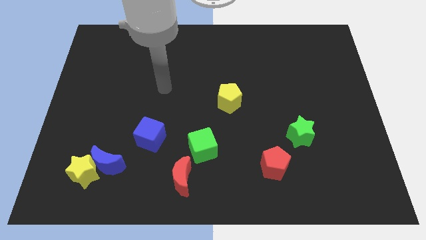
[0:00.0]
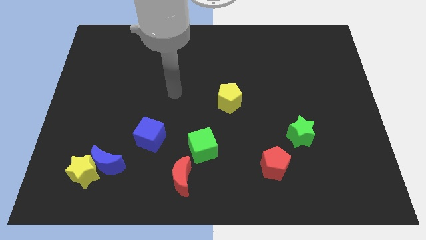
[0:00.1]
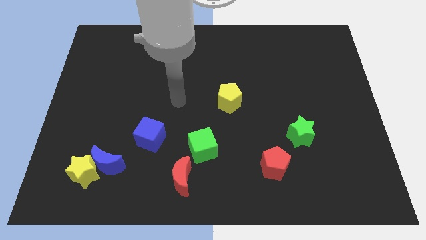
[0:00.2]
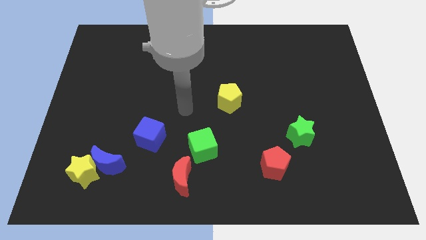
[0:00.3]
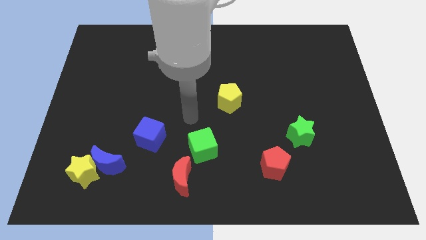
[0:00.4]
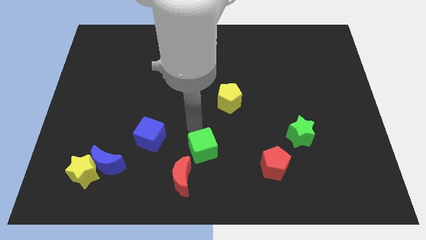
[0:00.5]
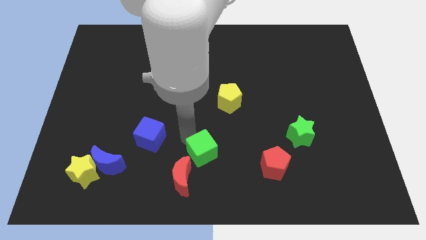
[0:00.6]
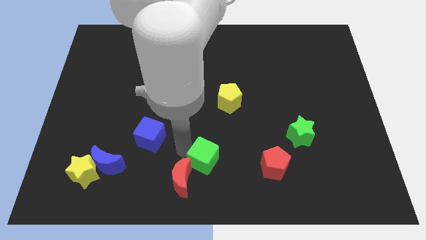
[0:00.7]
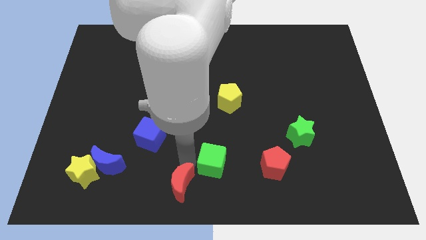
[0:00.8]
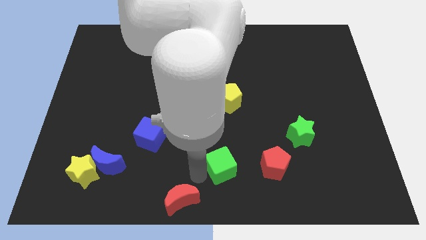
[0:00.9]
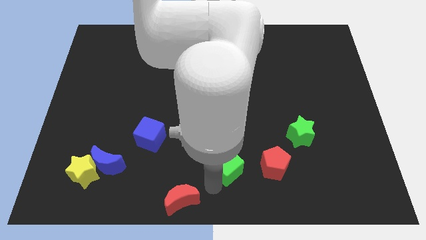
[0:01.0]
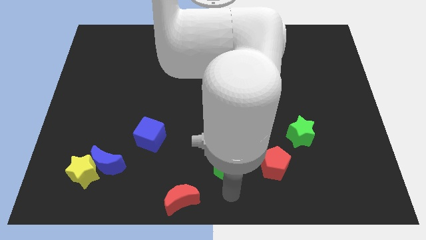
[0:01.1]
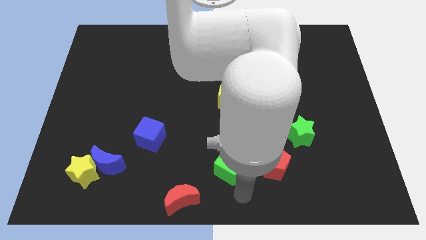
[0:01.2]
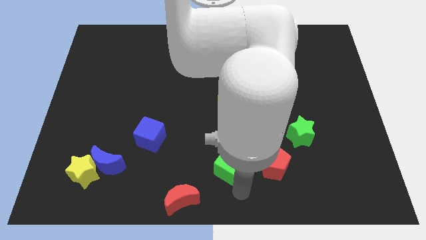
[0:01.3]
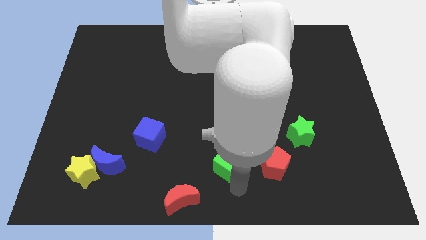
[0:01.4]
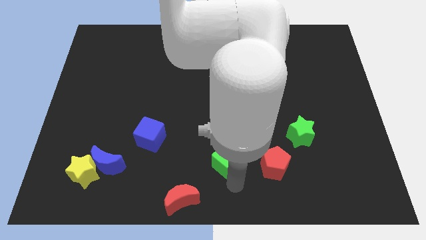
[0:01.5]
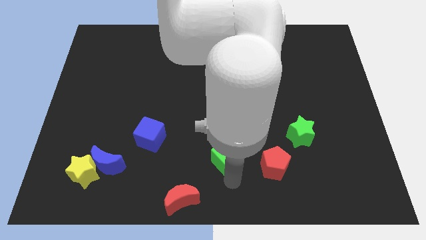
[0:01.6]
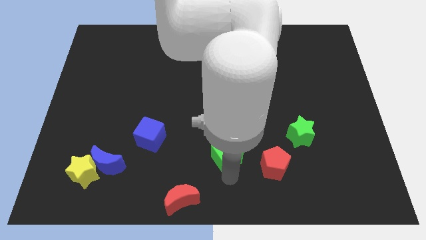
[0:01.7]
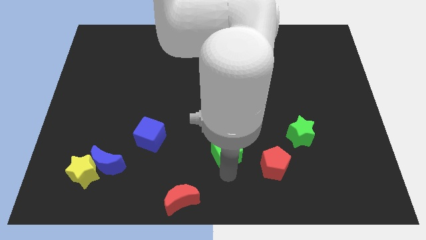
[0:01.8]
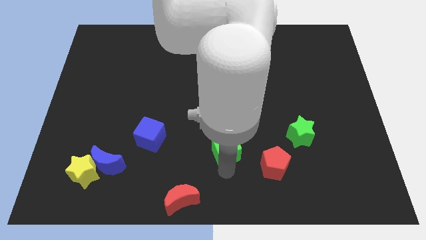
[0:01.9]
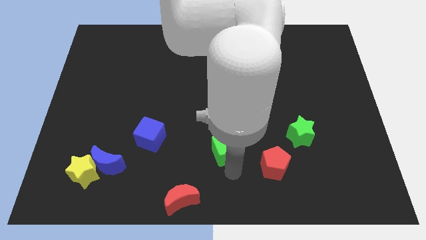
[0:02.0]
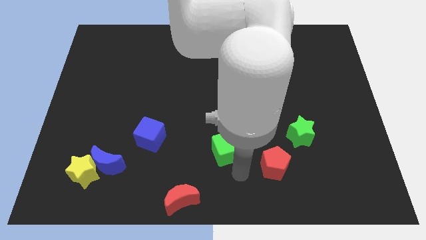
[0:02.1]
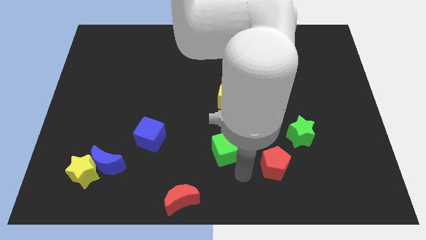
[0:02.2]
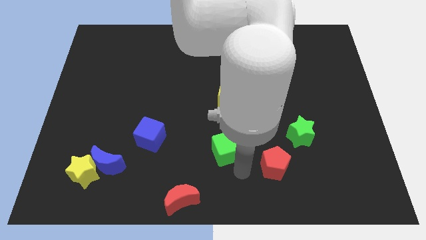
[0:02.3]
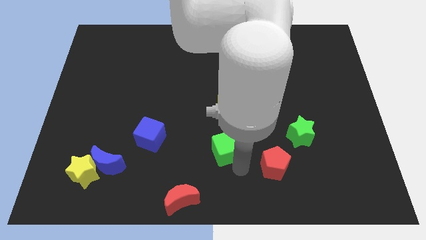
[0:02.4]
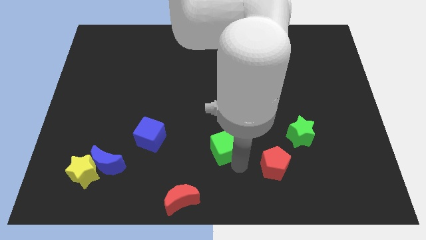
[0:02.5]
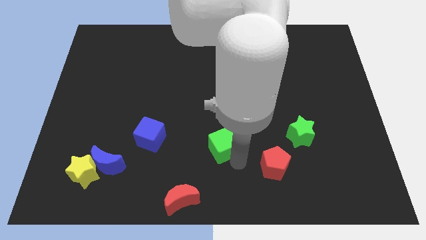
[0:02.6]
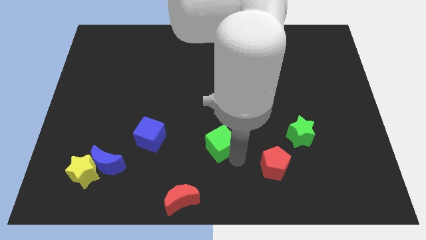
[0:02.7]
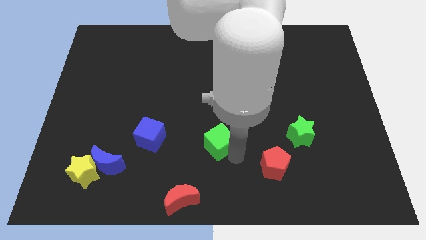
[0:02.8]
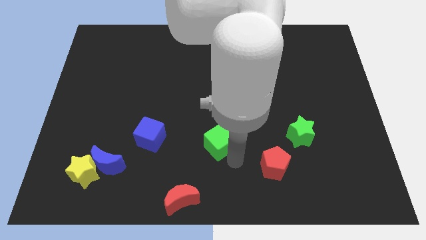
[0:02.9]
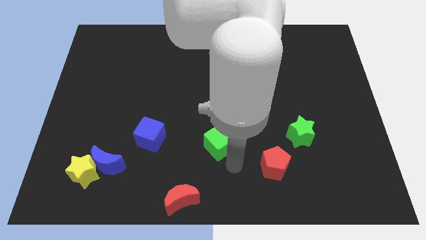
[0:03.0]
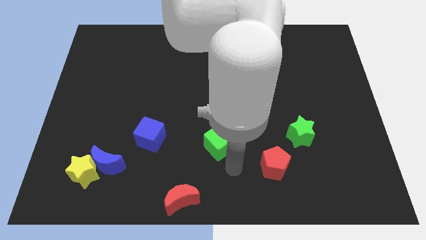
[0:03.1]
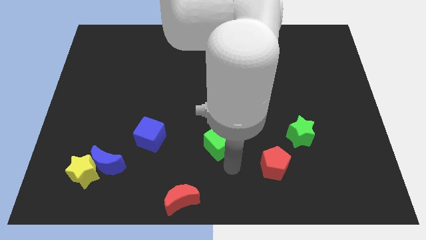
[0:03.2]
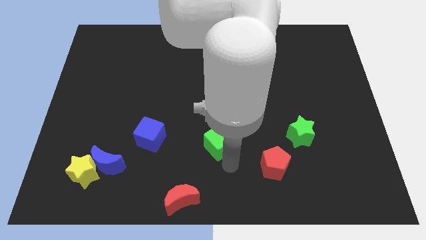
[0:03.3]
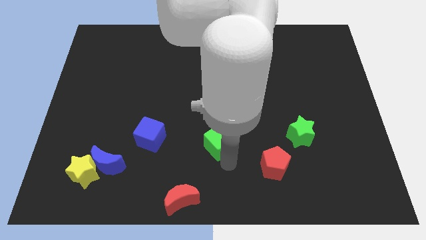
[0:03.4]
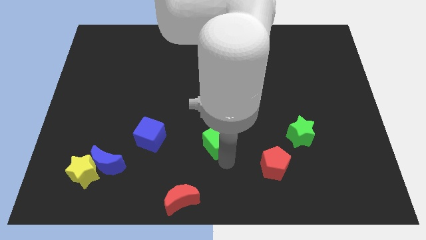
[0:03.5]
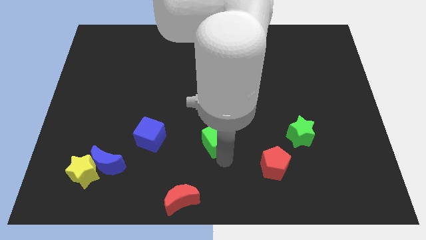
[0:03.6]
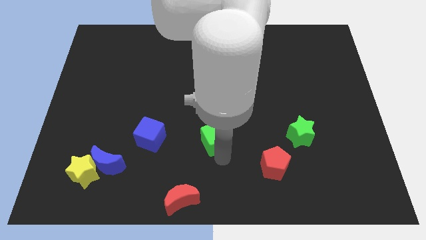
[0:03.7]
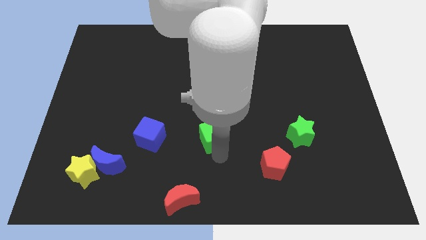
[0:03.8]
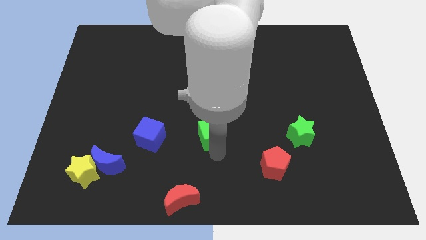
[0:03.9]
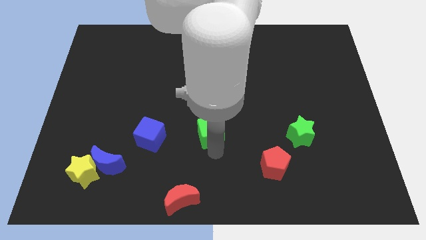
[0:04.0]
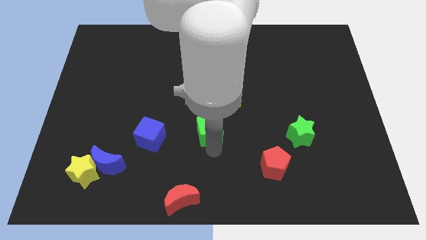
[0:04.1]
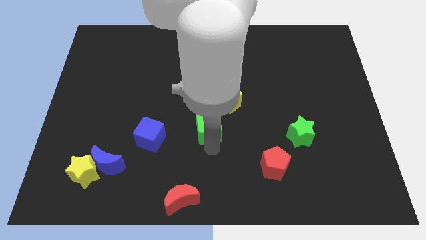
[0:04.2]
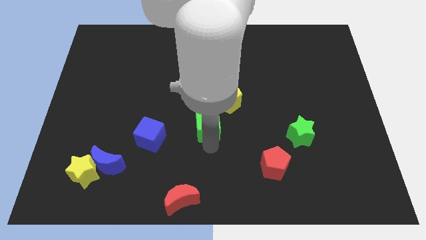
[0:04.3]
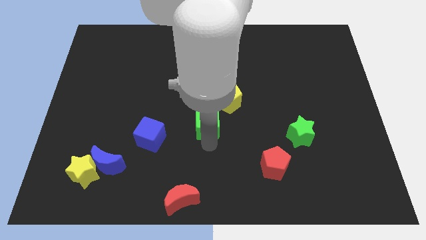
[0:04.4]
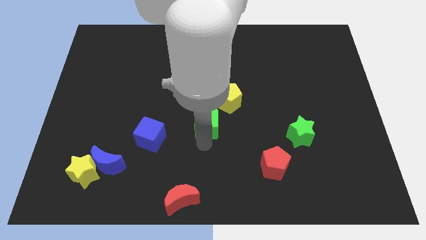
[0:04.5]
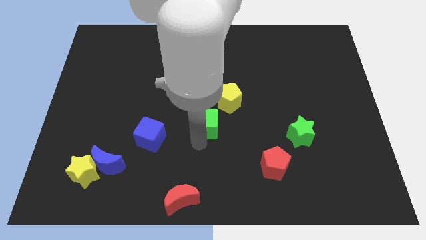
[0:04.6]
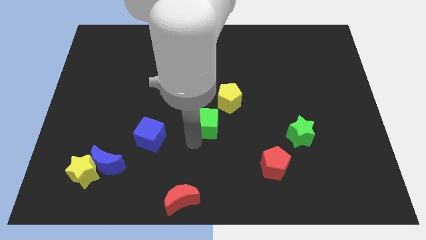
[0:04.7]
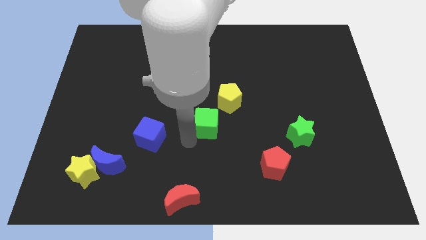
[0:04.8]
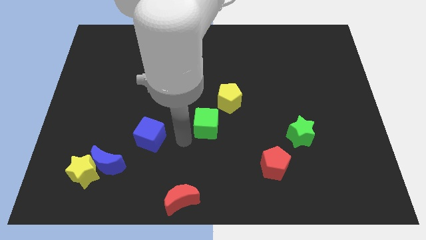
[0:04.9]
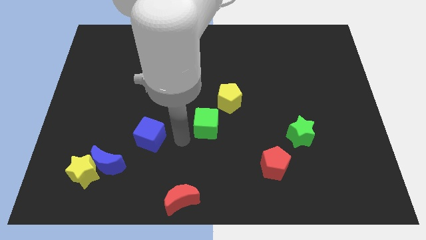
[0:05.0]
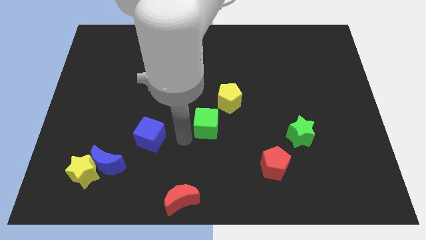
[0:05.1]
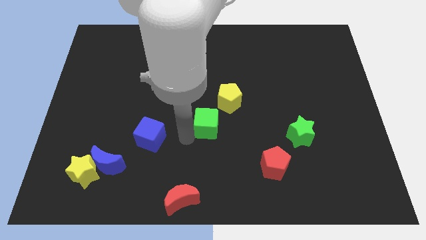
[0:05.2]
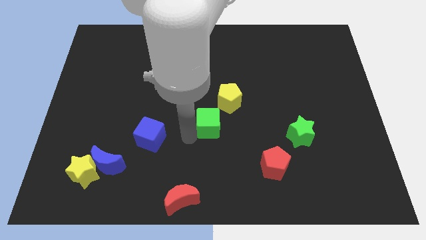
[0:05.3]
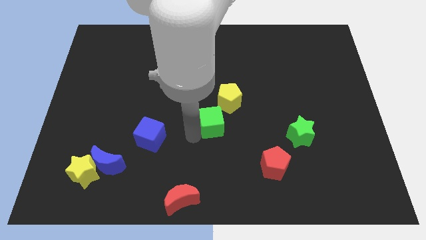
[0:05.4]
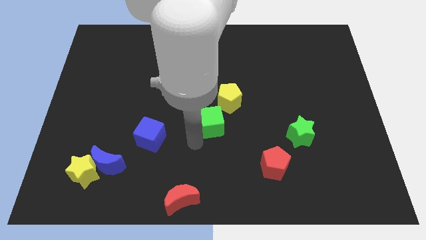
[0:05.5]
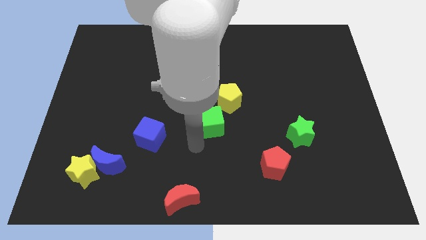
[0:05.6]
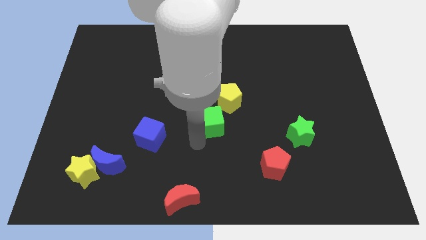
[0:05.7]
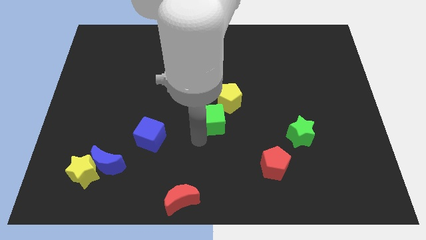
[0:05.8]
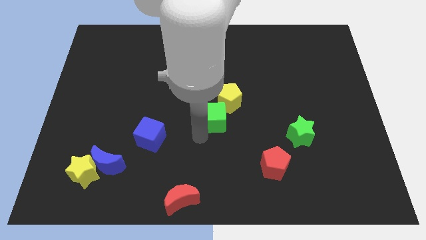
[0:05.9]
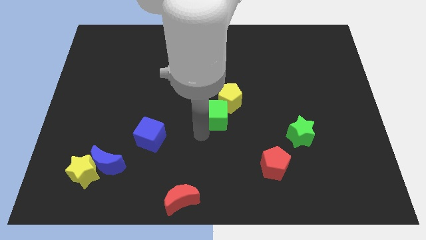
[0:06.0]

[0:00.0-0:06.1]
push the green cube towards the yellow pentagon

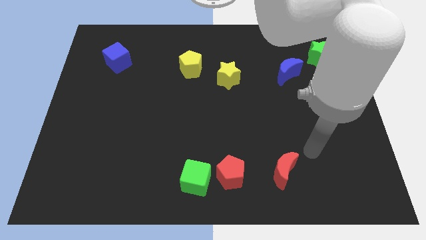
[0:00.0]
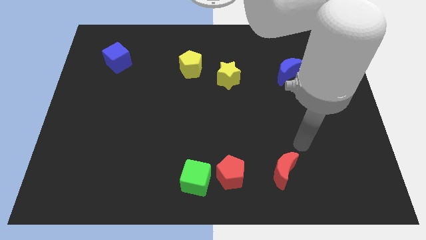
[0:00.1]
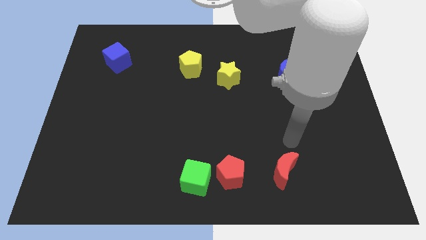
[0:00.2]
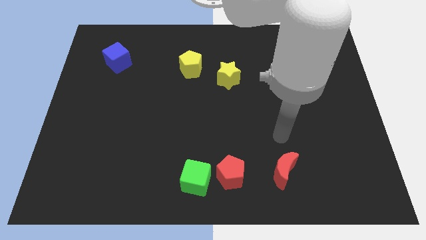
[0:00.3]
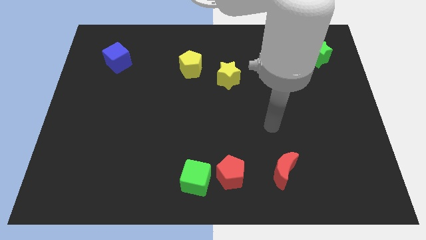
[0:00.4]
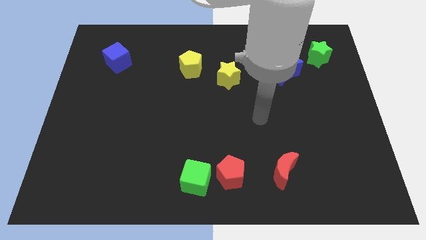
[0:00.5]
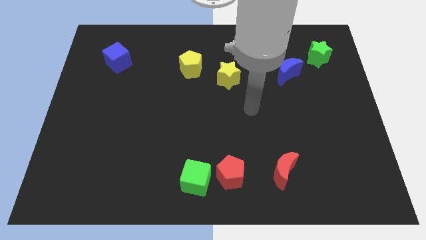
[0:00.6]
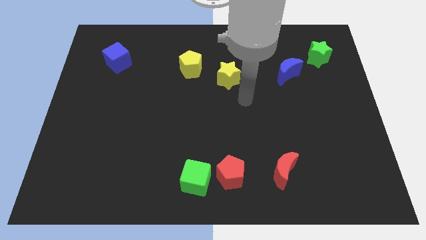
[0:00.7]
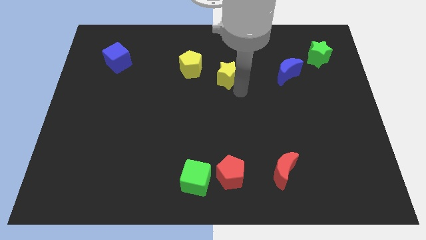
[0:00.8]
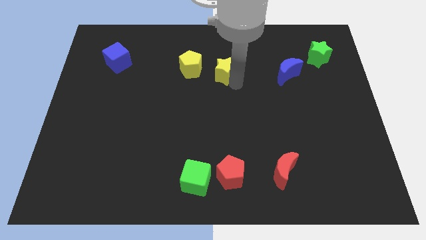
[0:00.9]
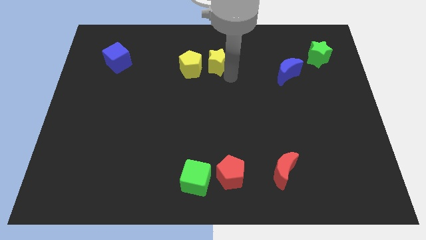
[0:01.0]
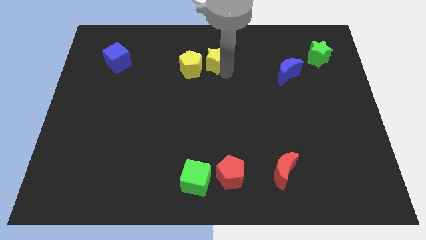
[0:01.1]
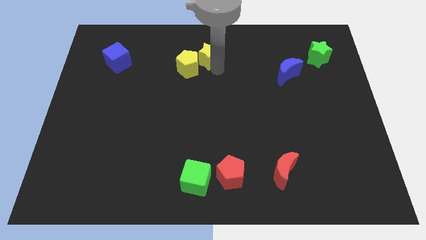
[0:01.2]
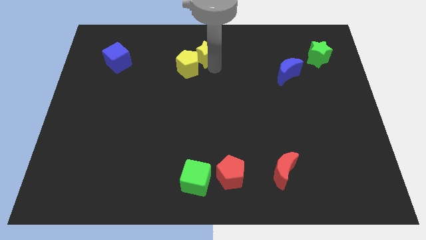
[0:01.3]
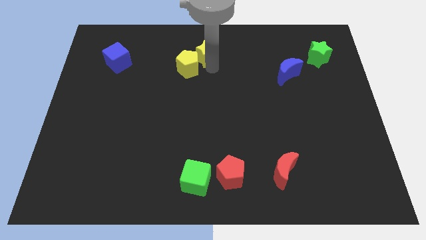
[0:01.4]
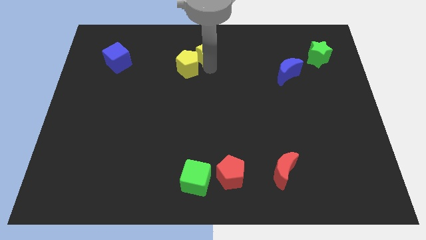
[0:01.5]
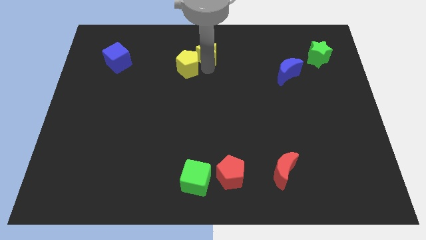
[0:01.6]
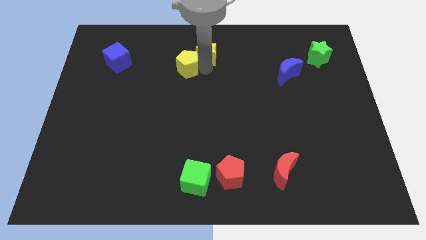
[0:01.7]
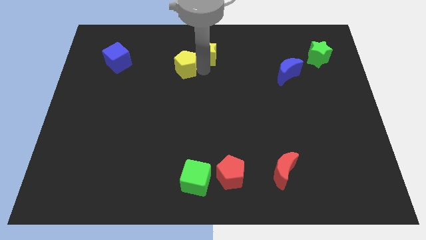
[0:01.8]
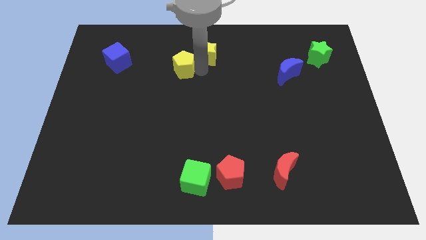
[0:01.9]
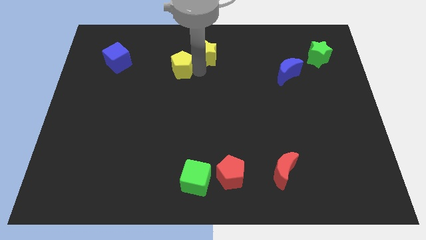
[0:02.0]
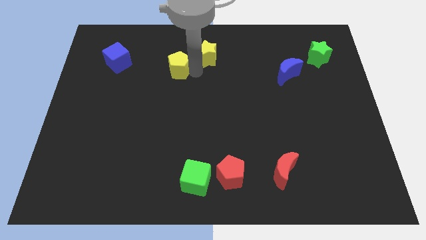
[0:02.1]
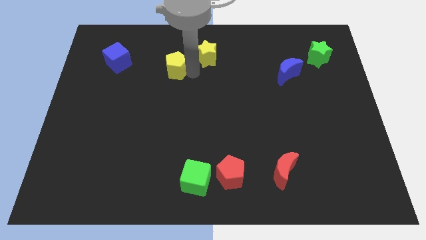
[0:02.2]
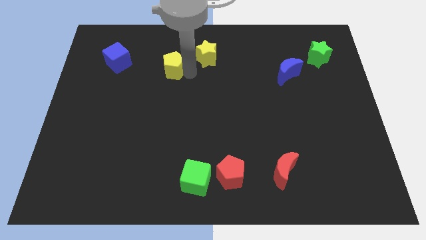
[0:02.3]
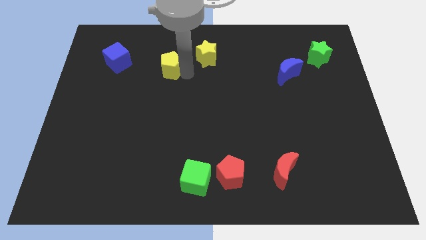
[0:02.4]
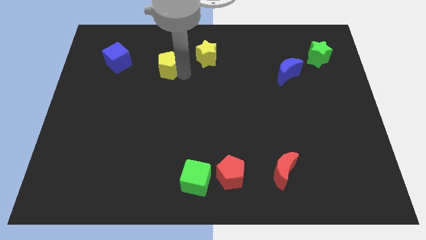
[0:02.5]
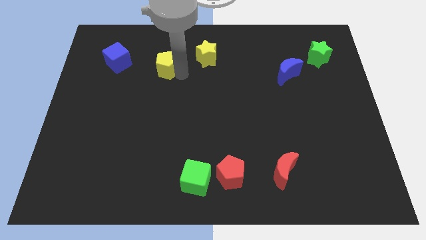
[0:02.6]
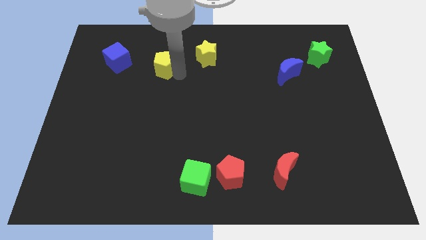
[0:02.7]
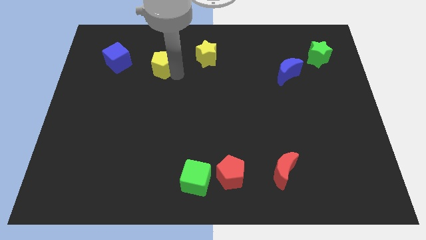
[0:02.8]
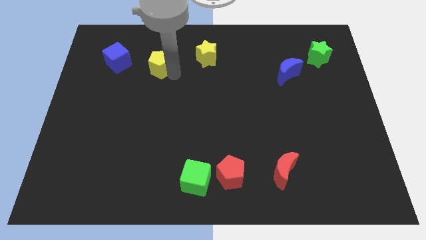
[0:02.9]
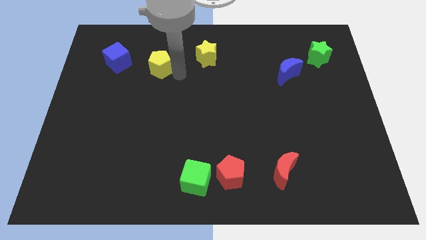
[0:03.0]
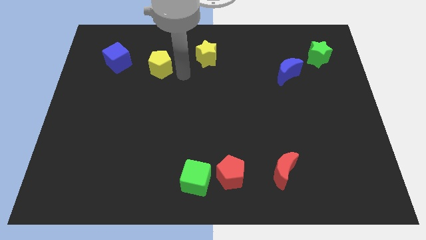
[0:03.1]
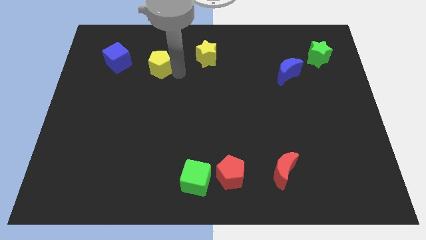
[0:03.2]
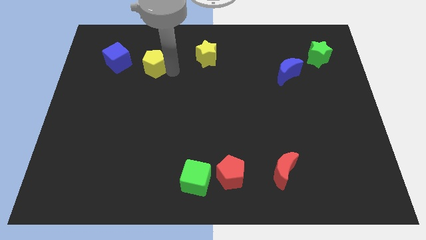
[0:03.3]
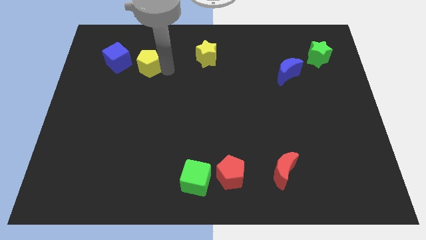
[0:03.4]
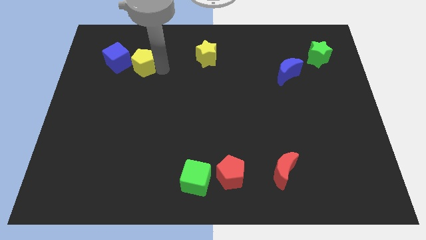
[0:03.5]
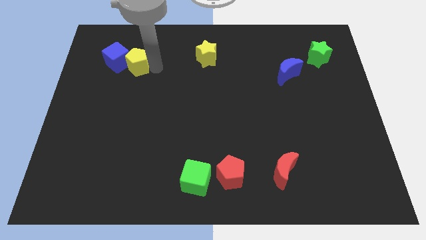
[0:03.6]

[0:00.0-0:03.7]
slide the yellow pentagon to the blue cube
